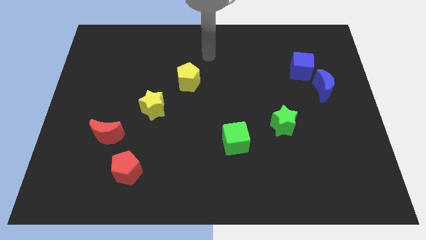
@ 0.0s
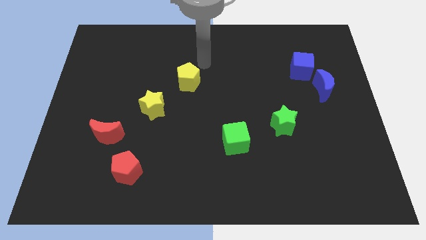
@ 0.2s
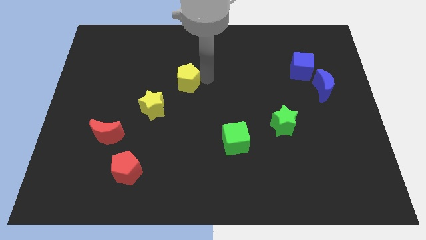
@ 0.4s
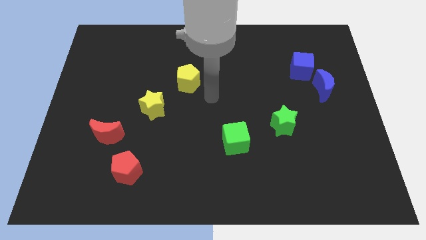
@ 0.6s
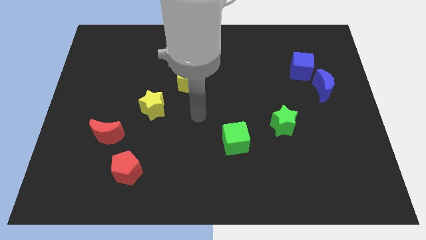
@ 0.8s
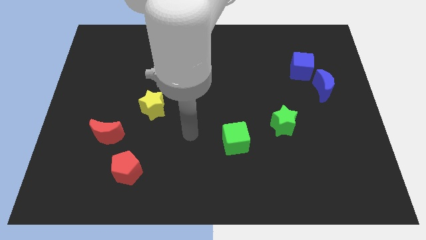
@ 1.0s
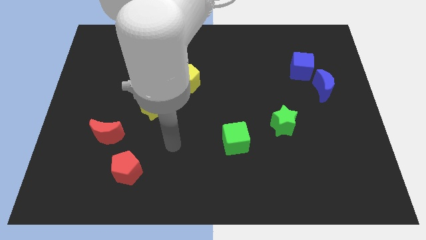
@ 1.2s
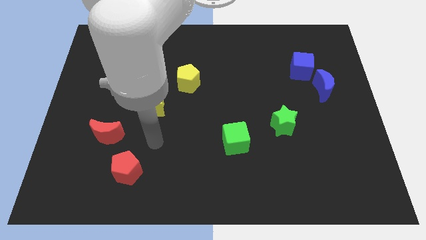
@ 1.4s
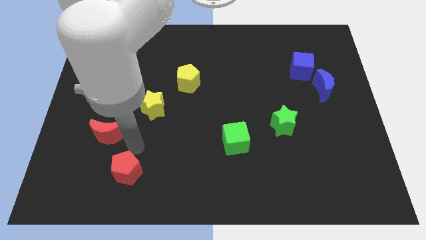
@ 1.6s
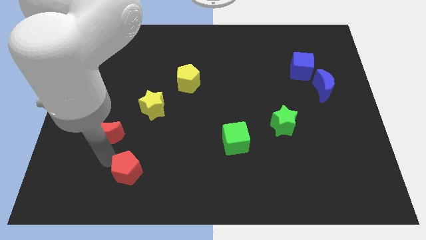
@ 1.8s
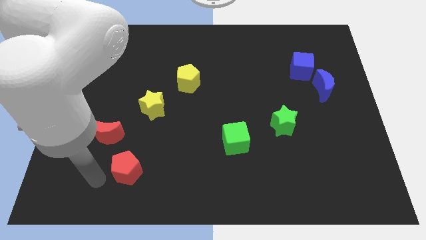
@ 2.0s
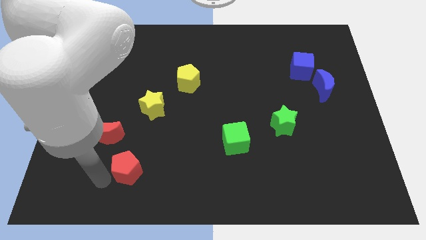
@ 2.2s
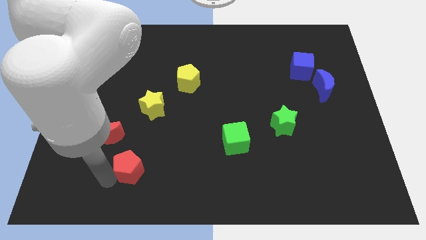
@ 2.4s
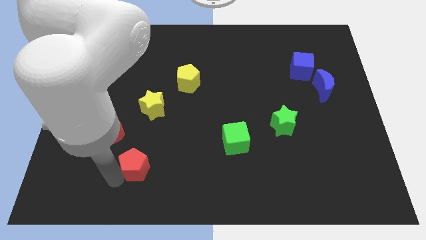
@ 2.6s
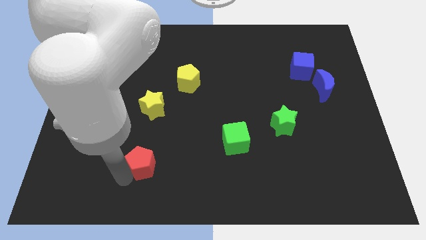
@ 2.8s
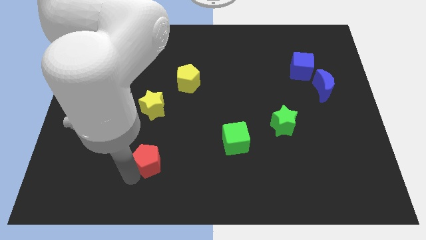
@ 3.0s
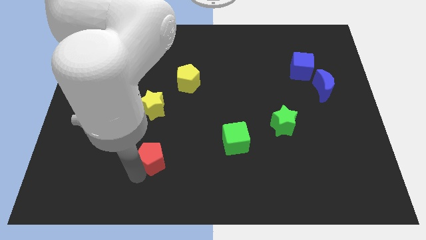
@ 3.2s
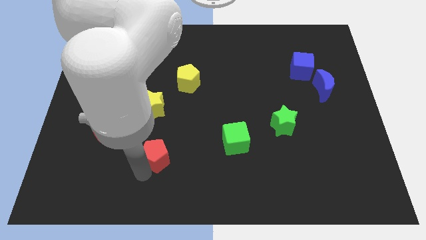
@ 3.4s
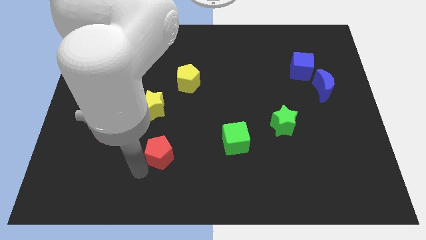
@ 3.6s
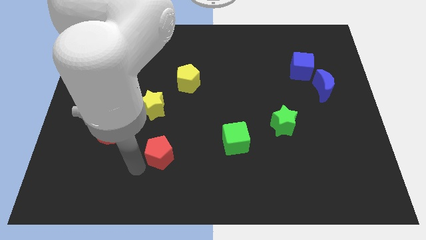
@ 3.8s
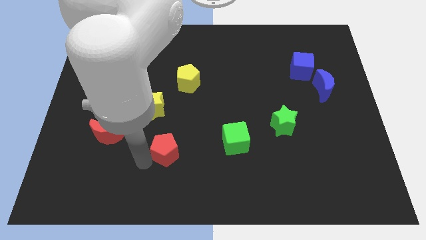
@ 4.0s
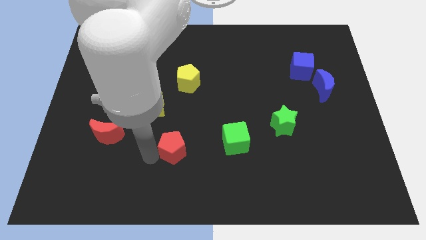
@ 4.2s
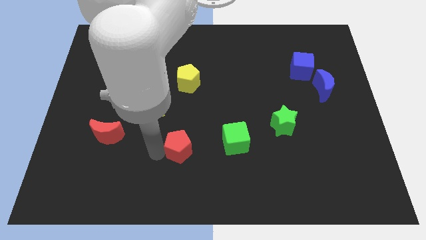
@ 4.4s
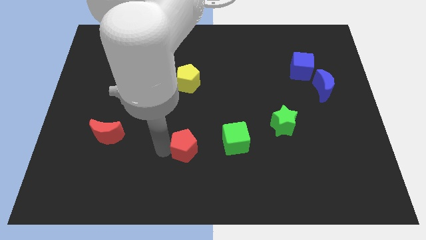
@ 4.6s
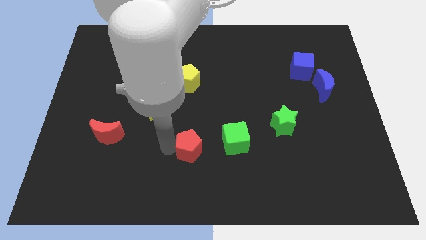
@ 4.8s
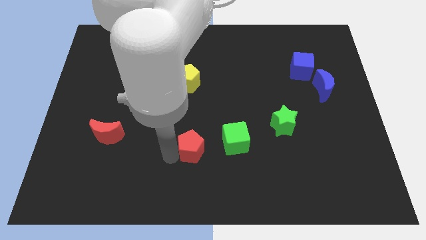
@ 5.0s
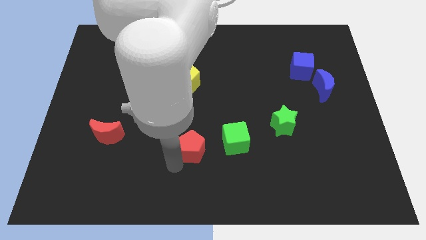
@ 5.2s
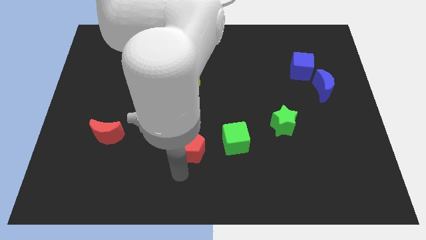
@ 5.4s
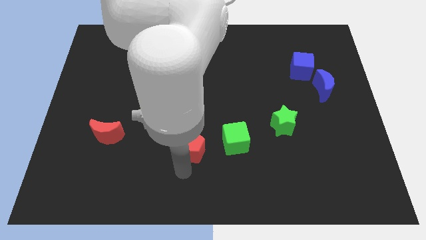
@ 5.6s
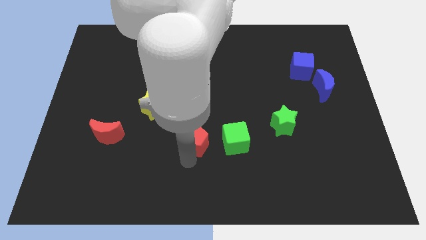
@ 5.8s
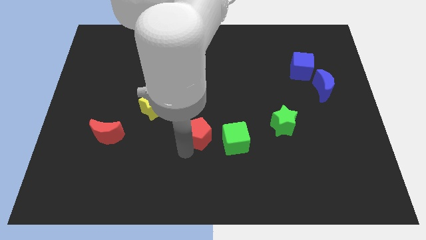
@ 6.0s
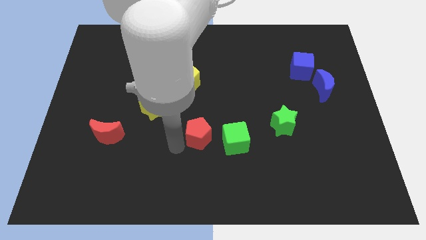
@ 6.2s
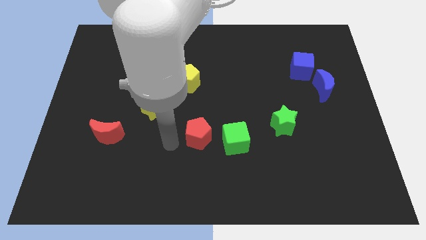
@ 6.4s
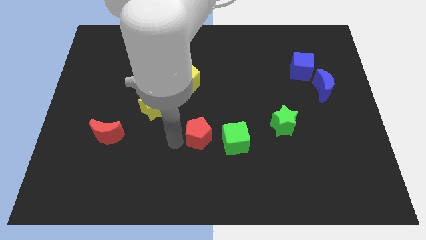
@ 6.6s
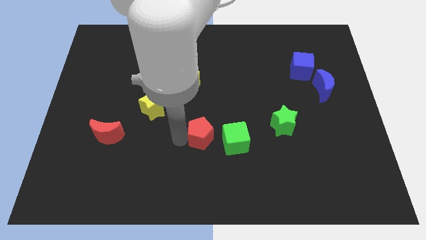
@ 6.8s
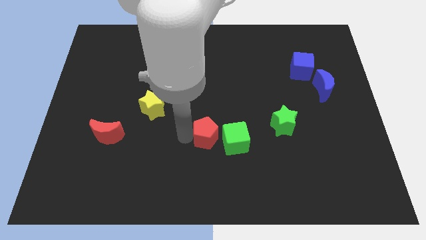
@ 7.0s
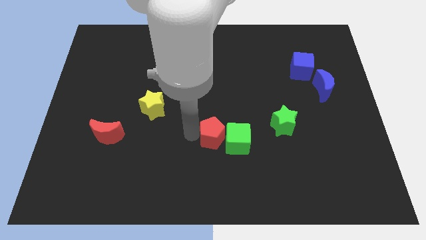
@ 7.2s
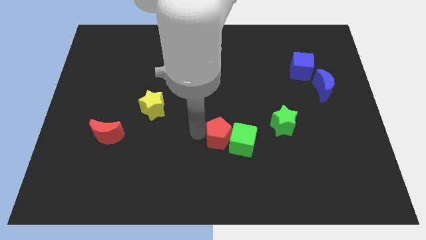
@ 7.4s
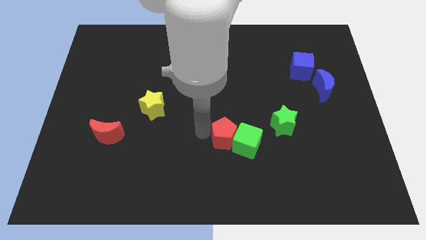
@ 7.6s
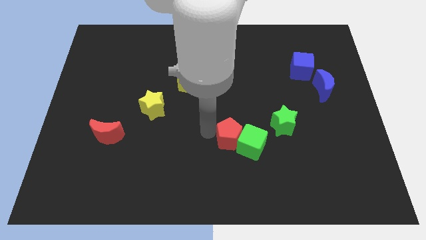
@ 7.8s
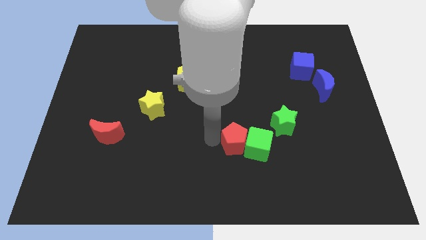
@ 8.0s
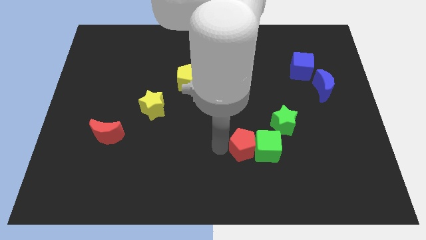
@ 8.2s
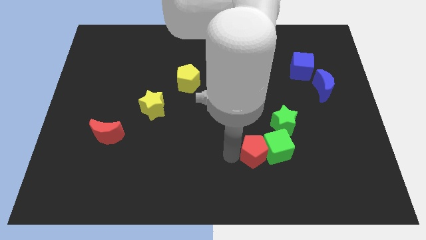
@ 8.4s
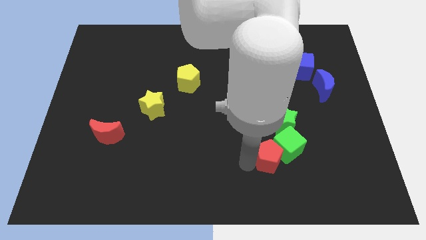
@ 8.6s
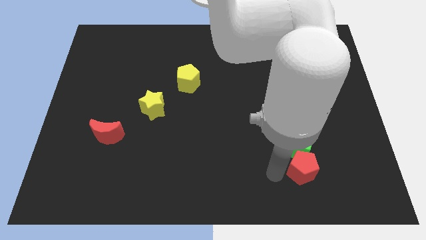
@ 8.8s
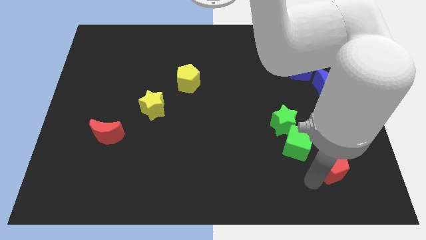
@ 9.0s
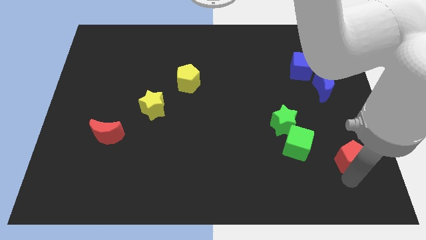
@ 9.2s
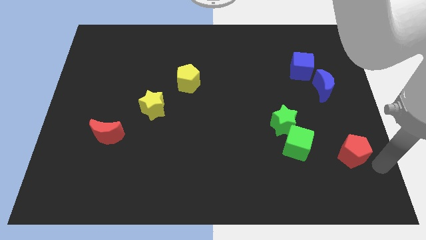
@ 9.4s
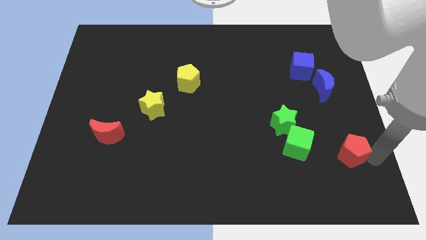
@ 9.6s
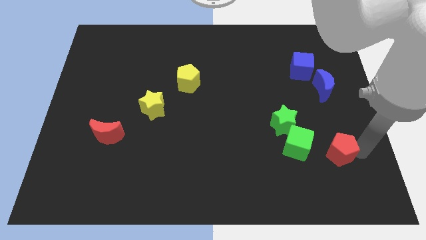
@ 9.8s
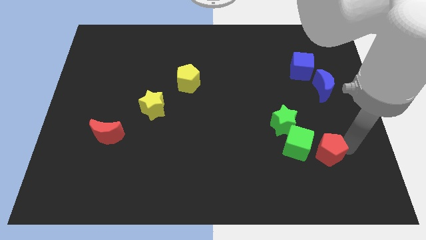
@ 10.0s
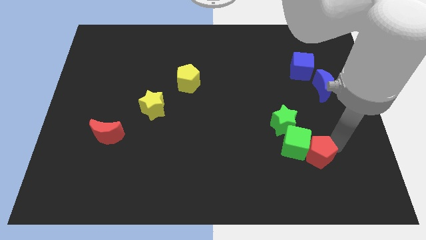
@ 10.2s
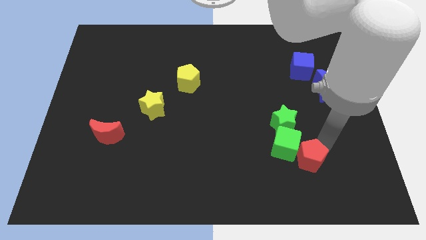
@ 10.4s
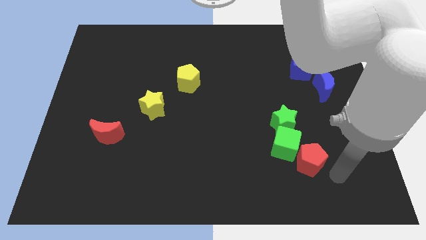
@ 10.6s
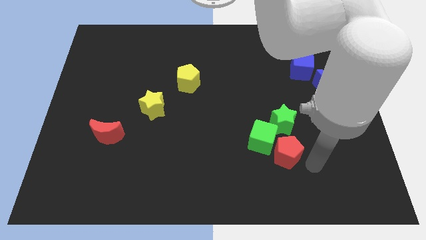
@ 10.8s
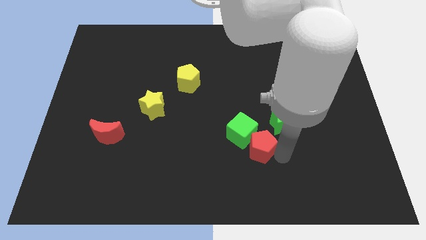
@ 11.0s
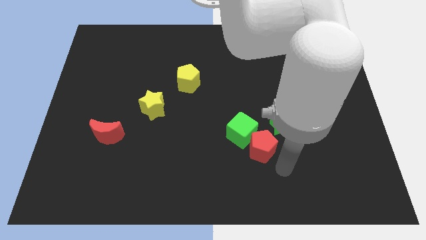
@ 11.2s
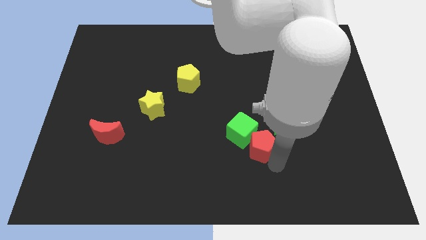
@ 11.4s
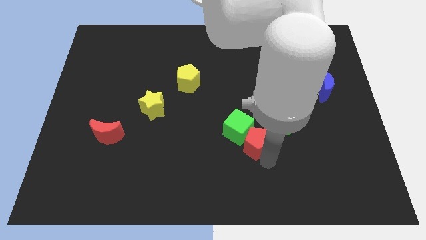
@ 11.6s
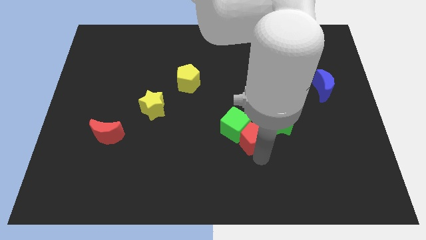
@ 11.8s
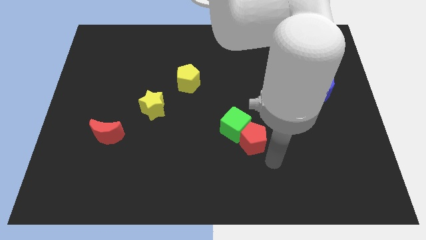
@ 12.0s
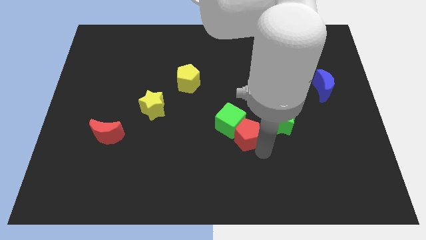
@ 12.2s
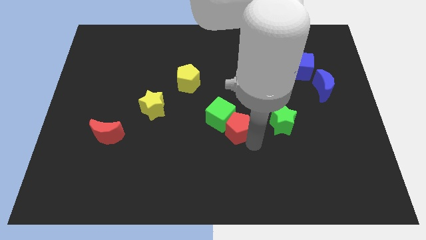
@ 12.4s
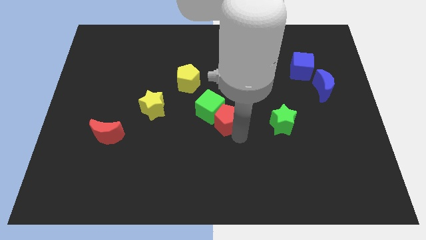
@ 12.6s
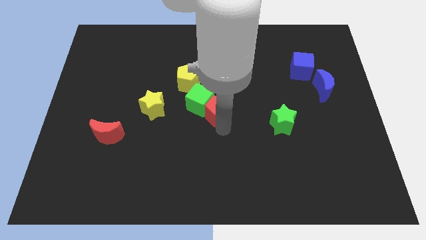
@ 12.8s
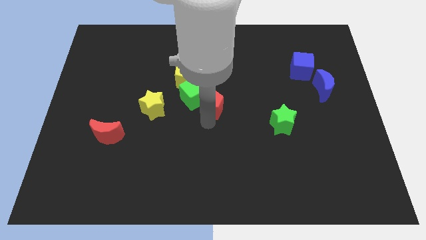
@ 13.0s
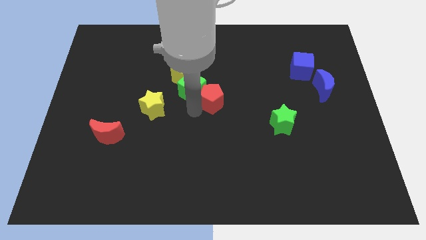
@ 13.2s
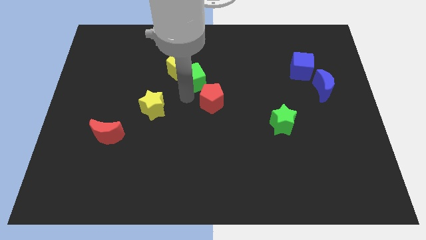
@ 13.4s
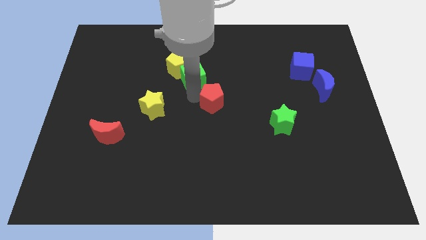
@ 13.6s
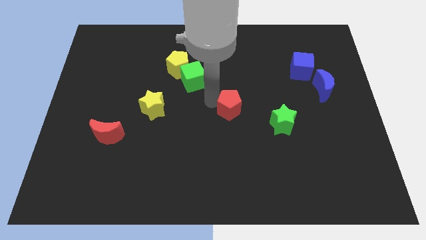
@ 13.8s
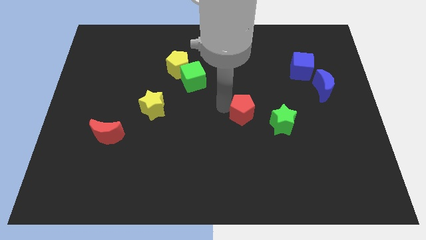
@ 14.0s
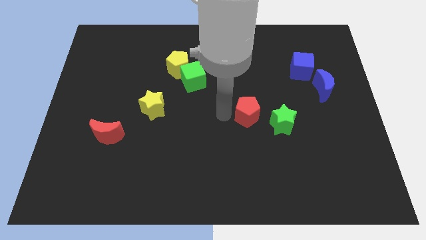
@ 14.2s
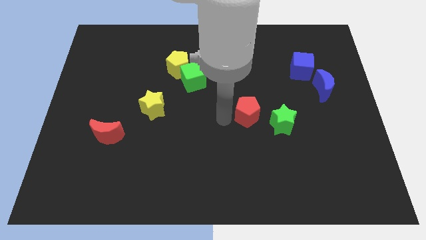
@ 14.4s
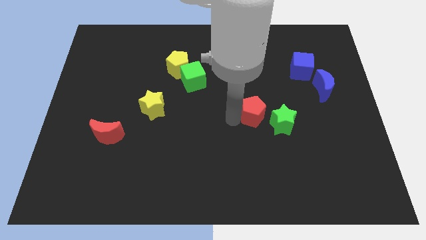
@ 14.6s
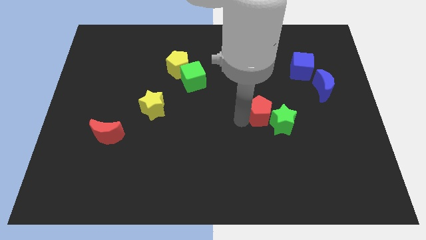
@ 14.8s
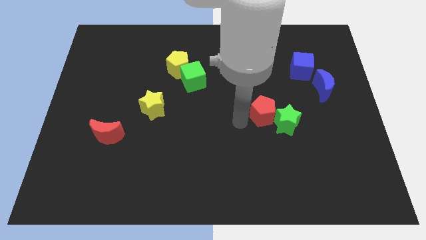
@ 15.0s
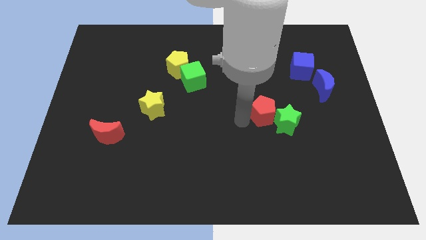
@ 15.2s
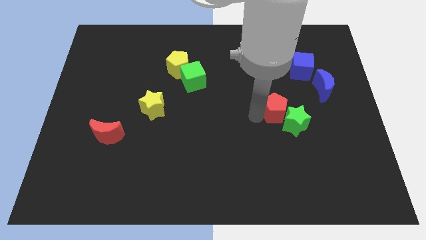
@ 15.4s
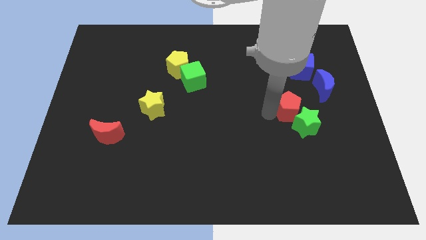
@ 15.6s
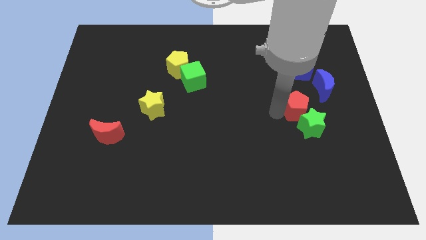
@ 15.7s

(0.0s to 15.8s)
put the red pentagon below the blue cube
